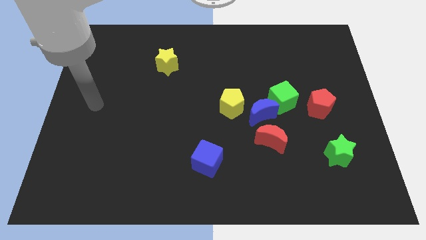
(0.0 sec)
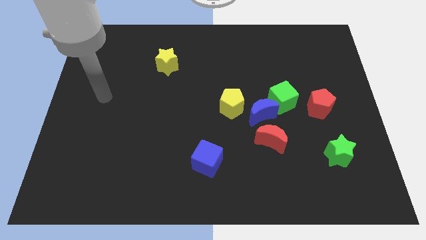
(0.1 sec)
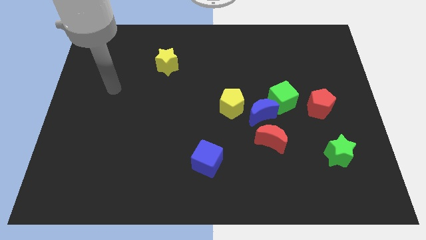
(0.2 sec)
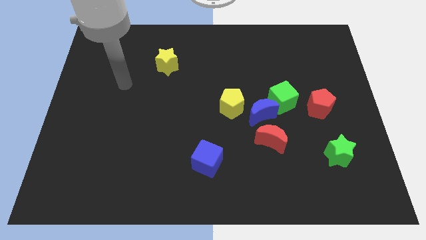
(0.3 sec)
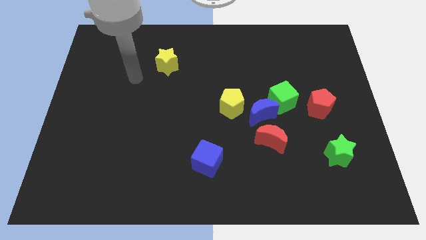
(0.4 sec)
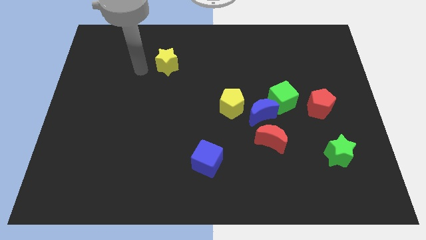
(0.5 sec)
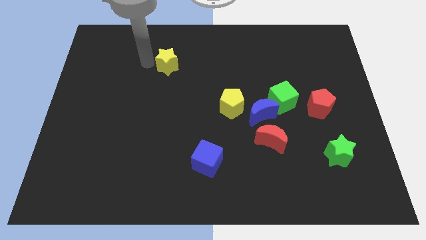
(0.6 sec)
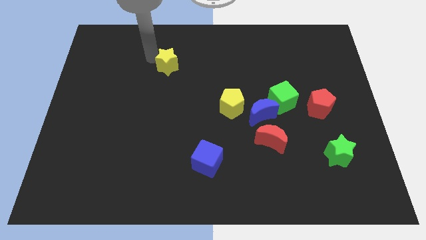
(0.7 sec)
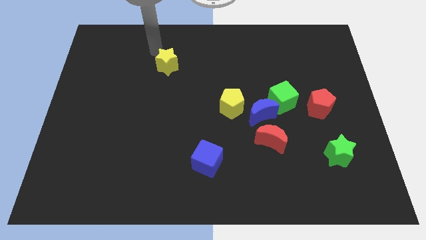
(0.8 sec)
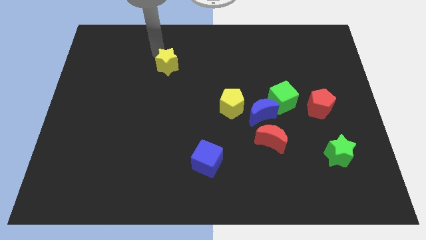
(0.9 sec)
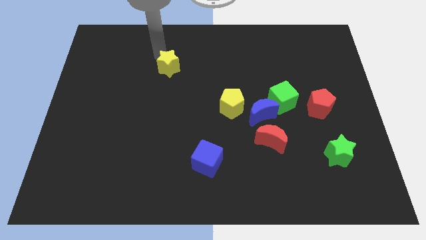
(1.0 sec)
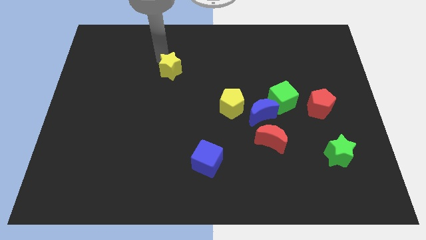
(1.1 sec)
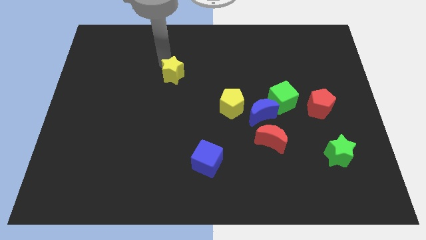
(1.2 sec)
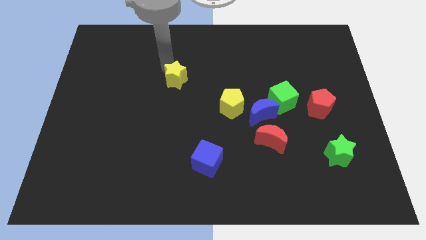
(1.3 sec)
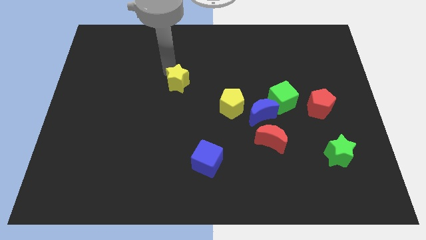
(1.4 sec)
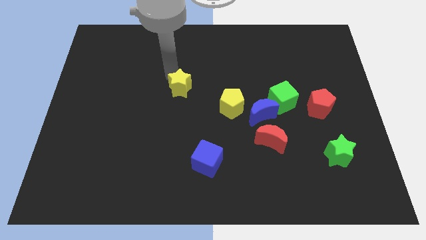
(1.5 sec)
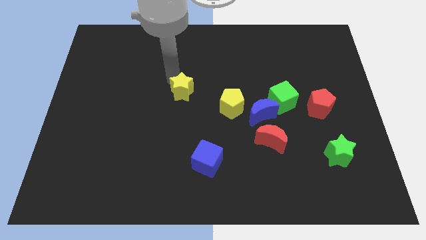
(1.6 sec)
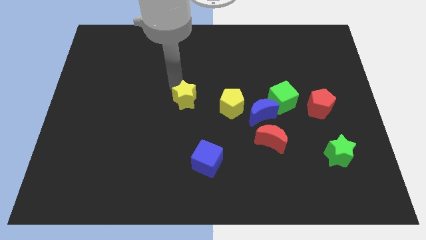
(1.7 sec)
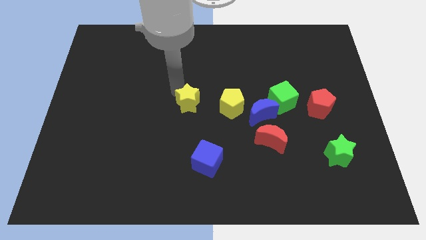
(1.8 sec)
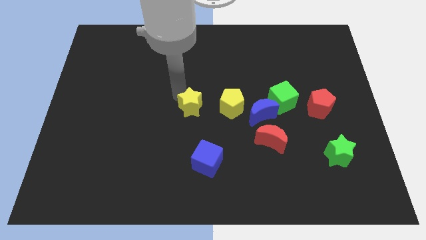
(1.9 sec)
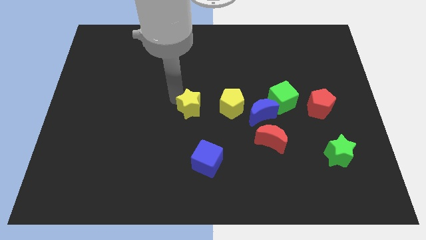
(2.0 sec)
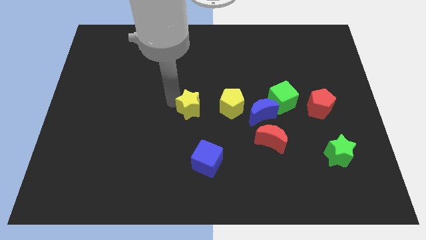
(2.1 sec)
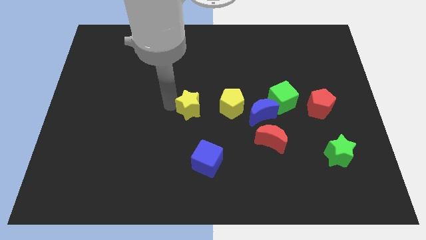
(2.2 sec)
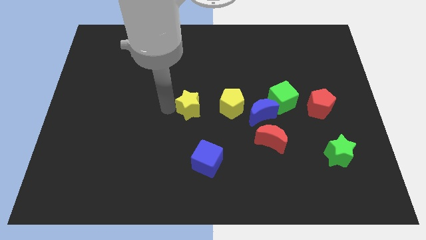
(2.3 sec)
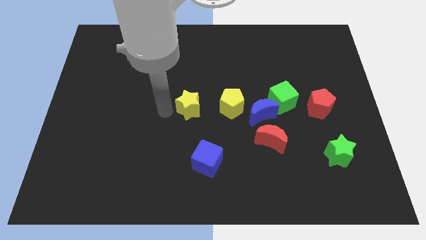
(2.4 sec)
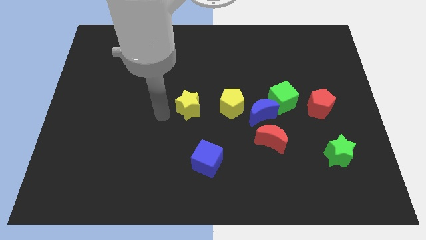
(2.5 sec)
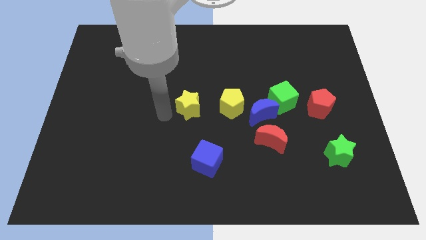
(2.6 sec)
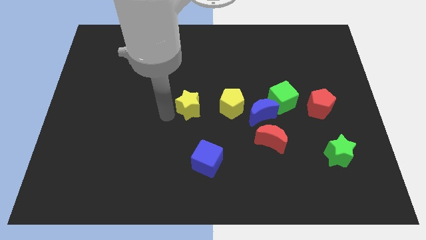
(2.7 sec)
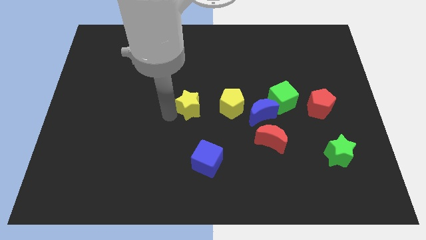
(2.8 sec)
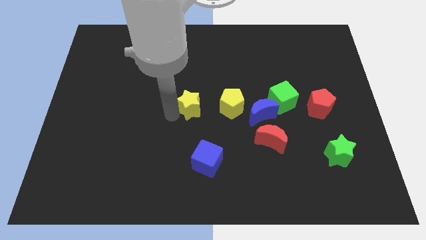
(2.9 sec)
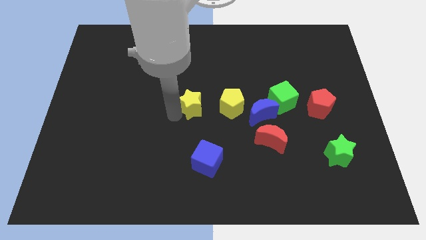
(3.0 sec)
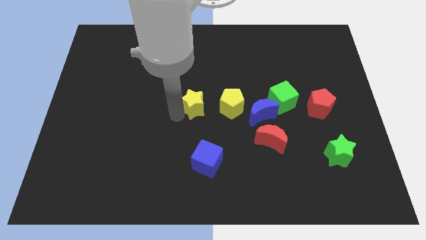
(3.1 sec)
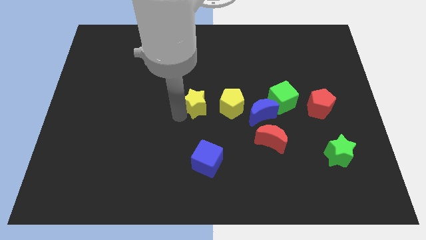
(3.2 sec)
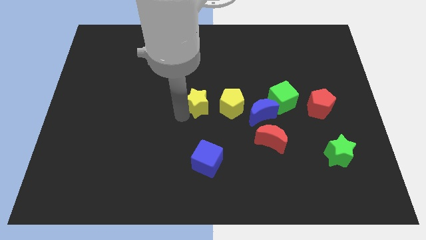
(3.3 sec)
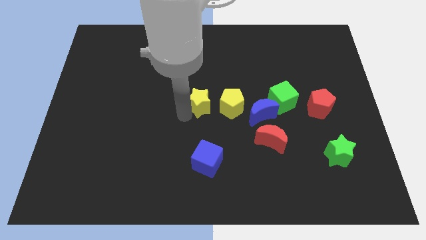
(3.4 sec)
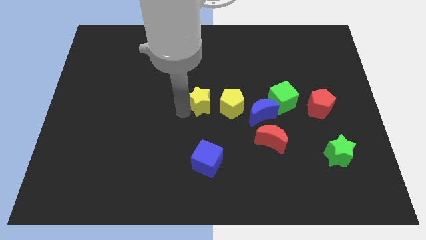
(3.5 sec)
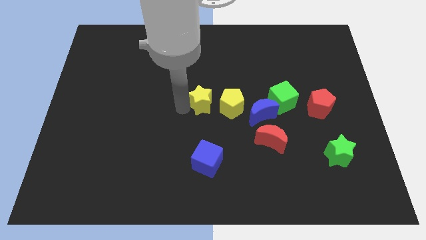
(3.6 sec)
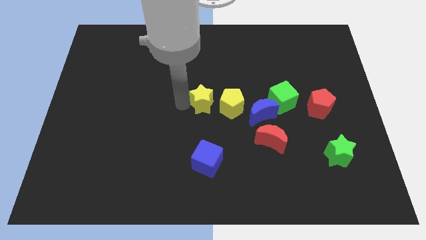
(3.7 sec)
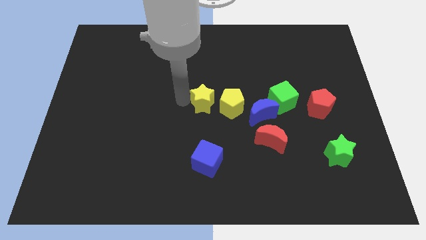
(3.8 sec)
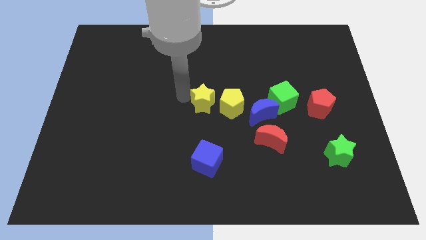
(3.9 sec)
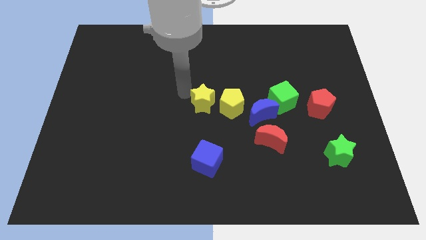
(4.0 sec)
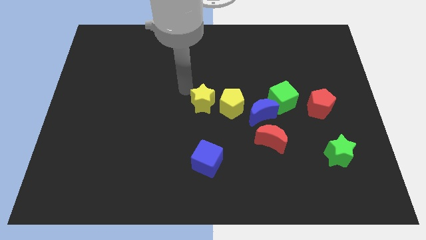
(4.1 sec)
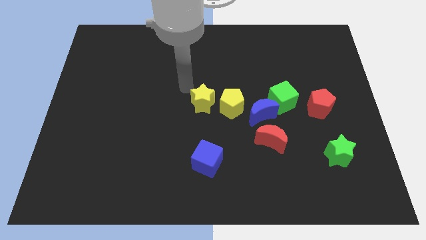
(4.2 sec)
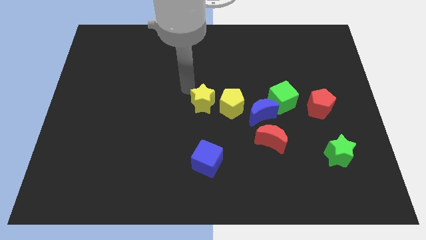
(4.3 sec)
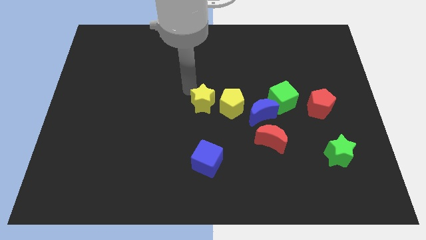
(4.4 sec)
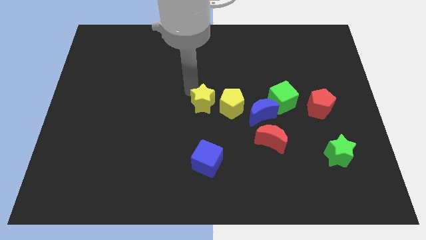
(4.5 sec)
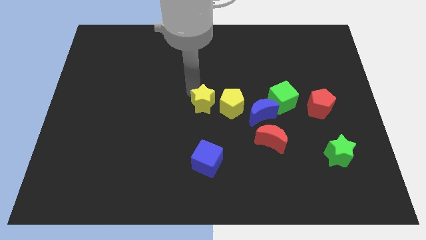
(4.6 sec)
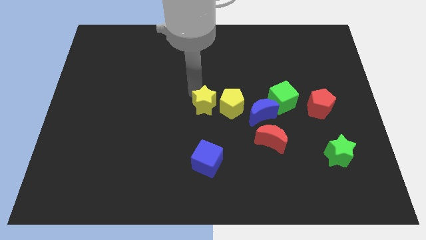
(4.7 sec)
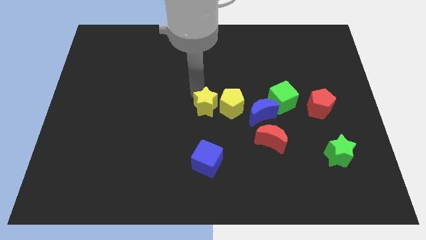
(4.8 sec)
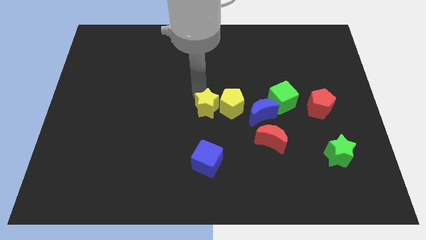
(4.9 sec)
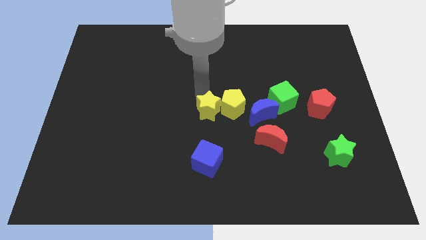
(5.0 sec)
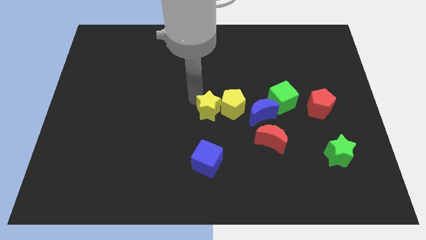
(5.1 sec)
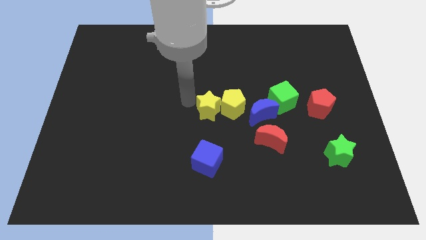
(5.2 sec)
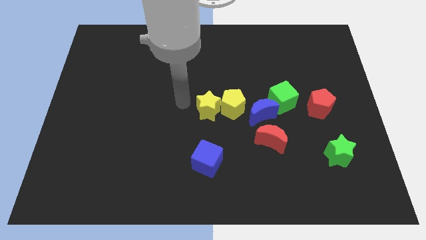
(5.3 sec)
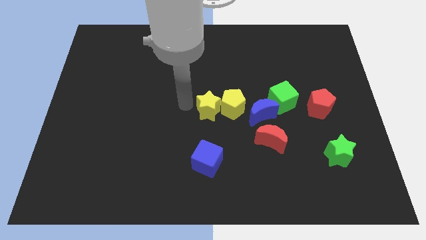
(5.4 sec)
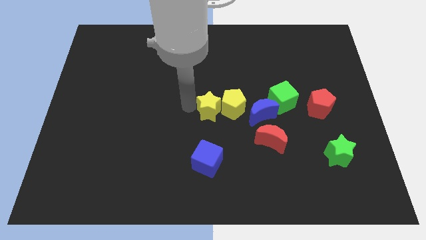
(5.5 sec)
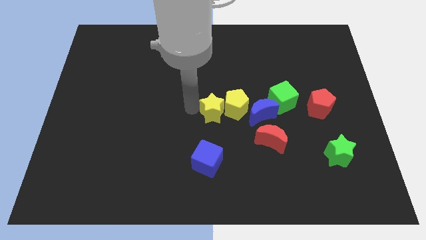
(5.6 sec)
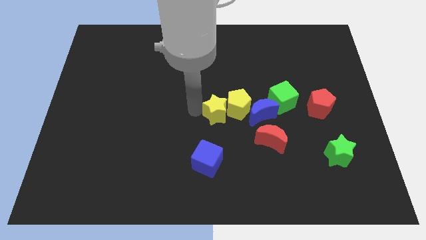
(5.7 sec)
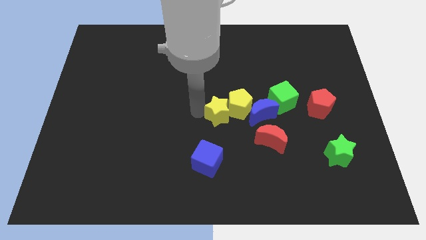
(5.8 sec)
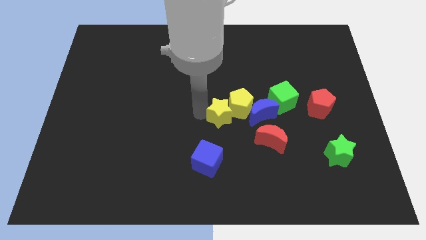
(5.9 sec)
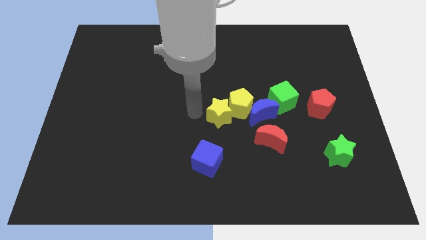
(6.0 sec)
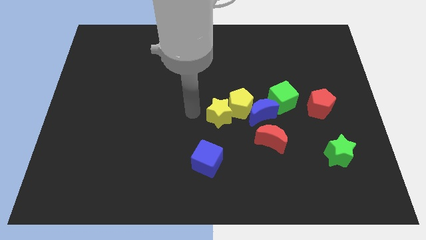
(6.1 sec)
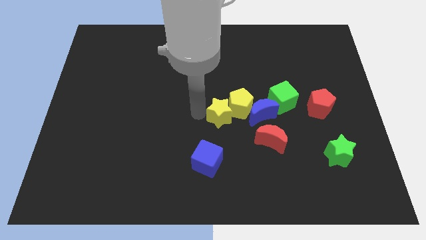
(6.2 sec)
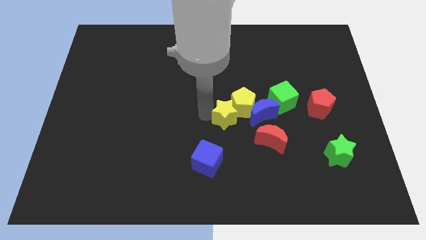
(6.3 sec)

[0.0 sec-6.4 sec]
move the yellow star to the top left of the red moon

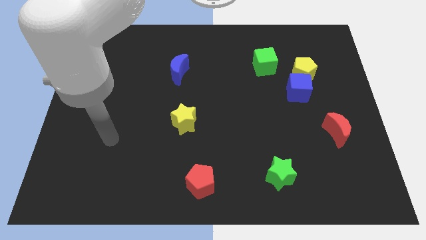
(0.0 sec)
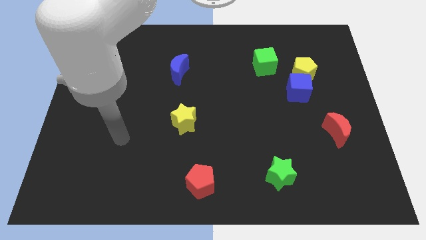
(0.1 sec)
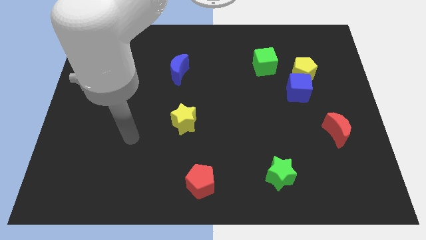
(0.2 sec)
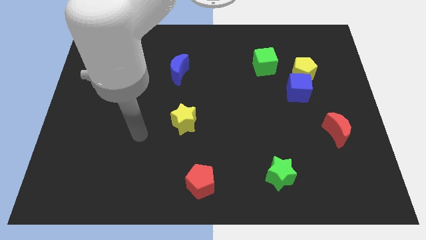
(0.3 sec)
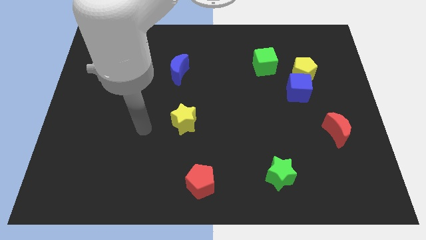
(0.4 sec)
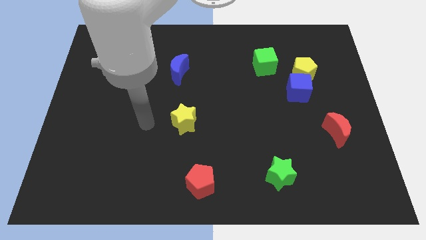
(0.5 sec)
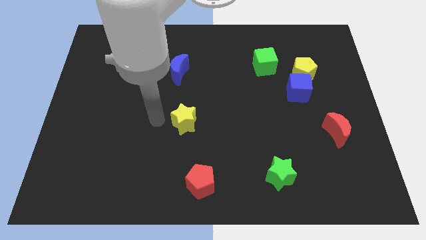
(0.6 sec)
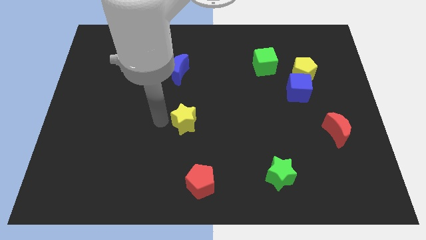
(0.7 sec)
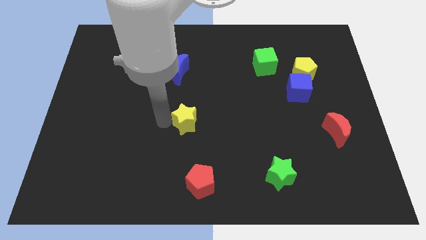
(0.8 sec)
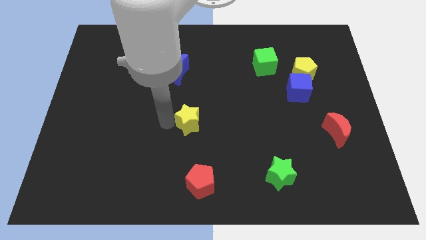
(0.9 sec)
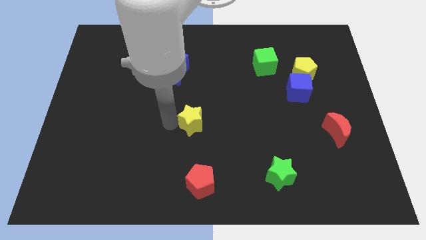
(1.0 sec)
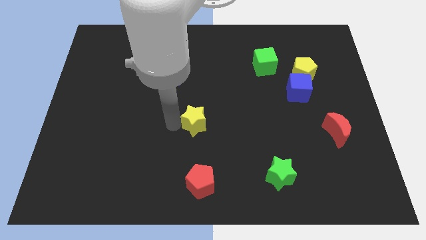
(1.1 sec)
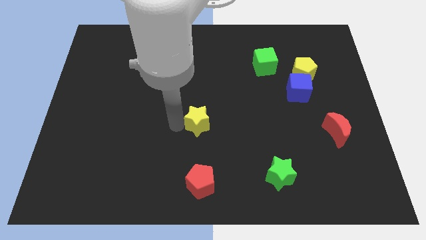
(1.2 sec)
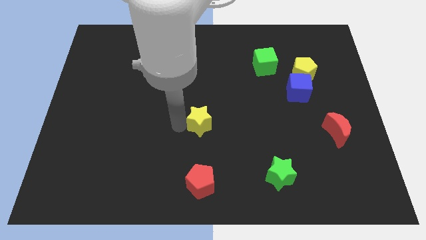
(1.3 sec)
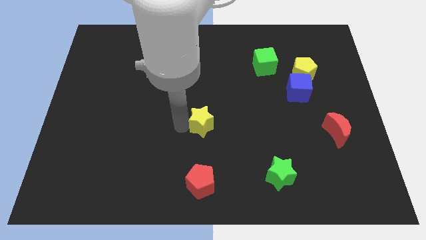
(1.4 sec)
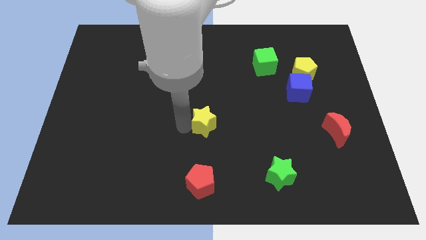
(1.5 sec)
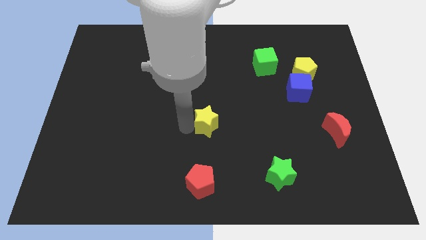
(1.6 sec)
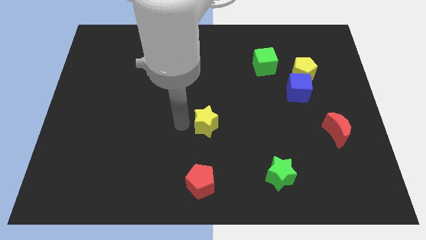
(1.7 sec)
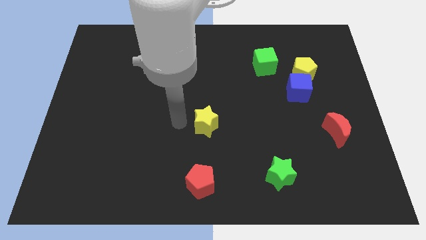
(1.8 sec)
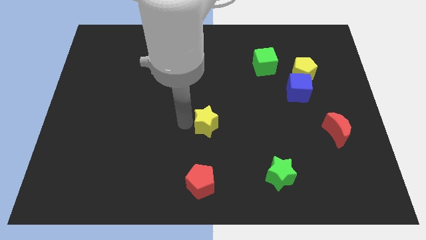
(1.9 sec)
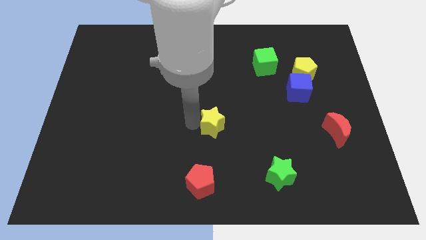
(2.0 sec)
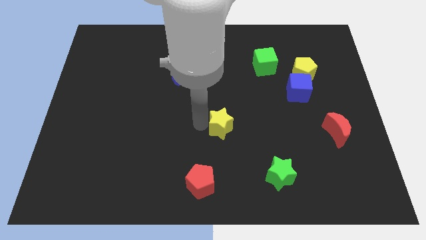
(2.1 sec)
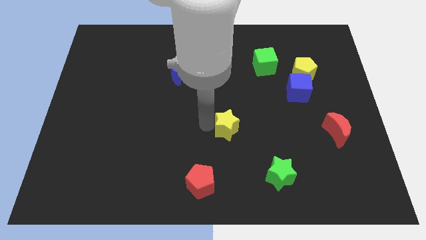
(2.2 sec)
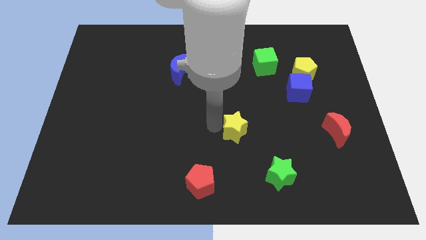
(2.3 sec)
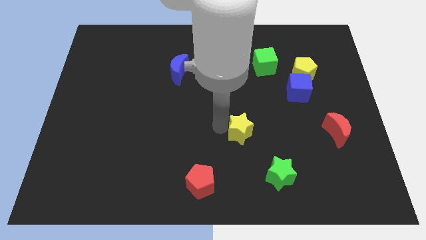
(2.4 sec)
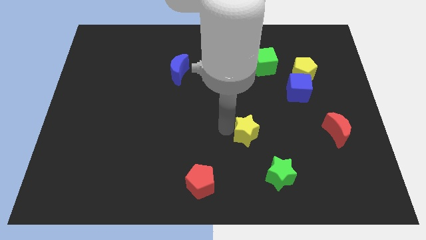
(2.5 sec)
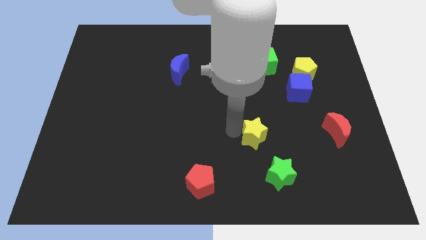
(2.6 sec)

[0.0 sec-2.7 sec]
put the yellow star to the top side of the green star
